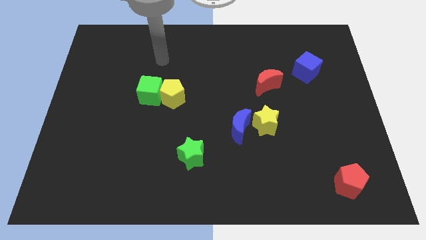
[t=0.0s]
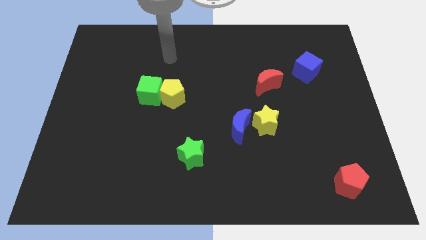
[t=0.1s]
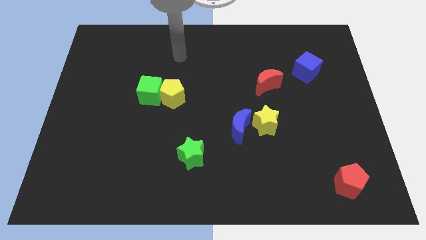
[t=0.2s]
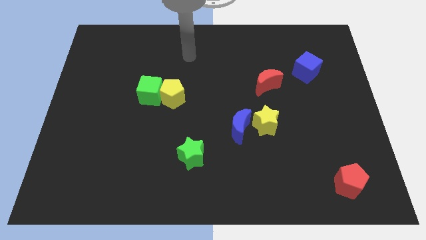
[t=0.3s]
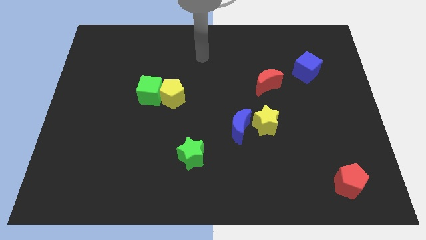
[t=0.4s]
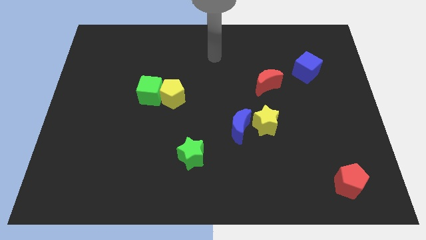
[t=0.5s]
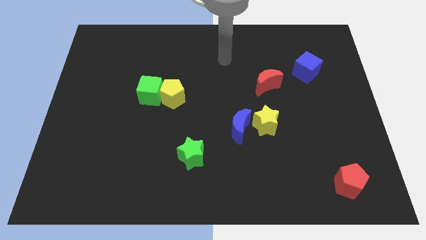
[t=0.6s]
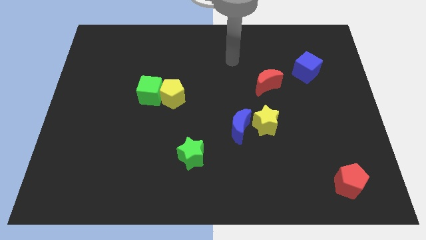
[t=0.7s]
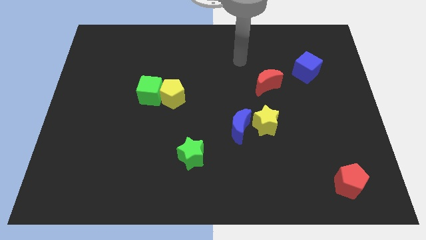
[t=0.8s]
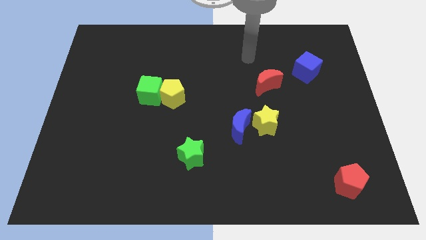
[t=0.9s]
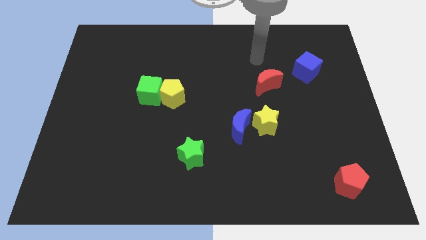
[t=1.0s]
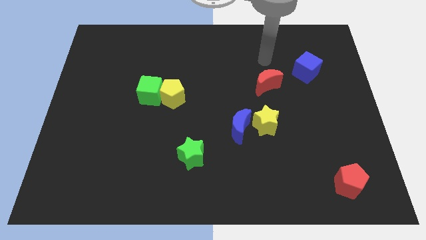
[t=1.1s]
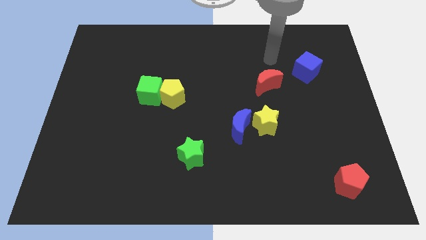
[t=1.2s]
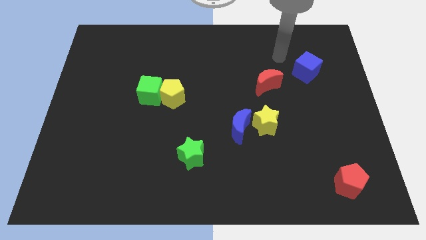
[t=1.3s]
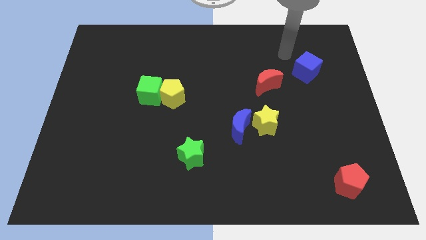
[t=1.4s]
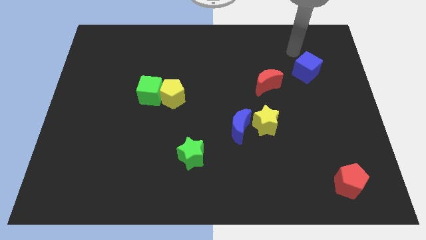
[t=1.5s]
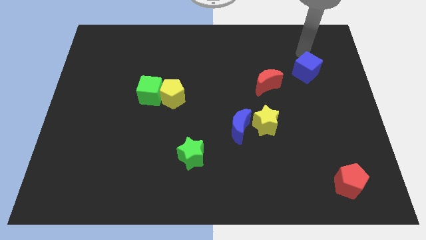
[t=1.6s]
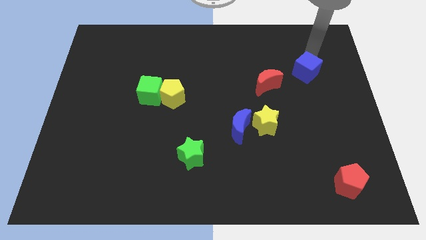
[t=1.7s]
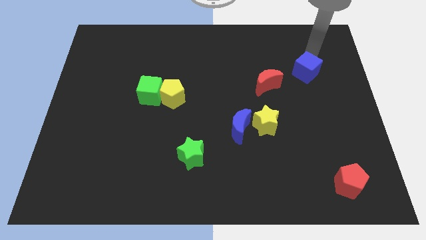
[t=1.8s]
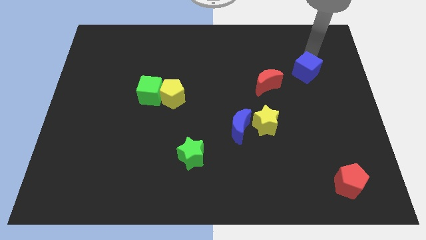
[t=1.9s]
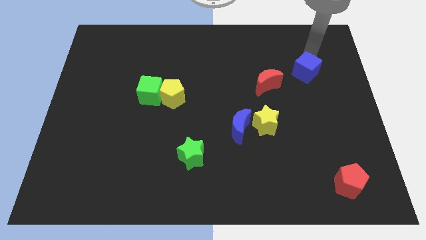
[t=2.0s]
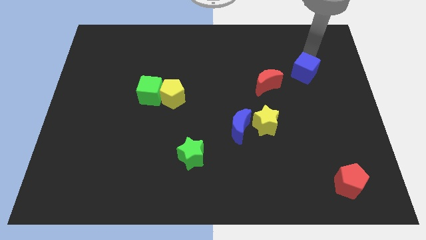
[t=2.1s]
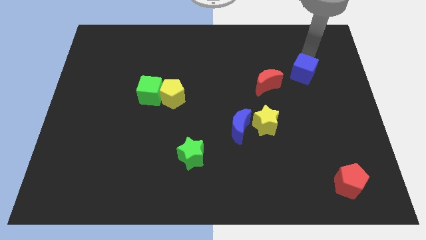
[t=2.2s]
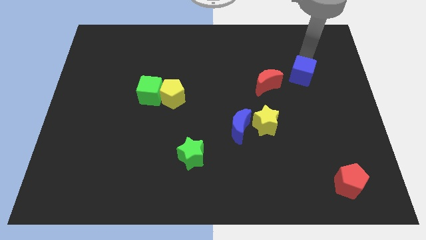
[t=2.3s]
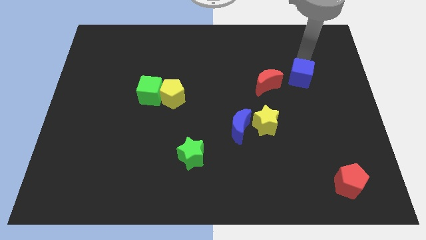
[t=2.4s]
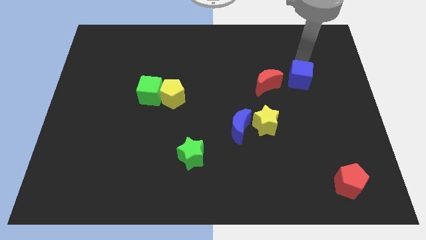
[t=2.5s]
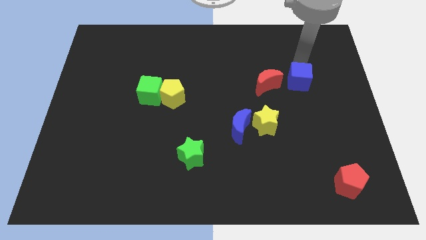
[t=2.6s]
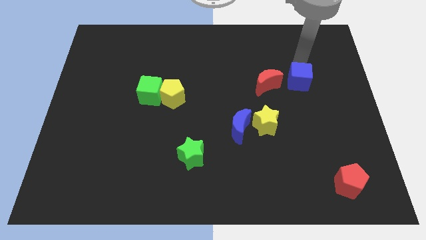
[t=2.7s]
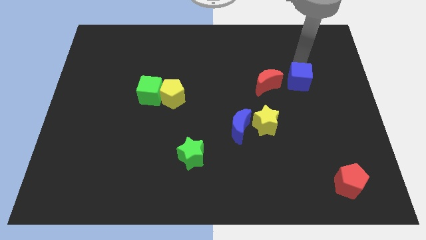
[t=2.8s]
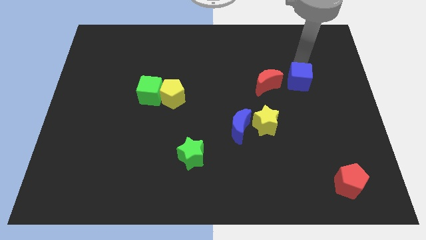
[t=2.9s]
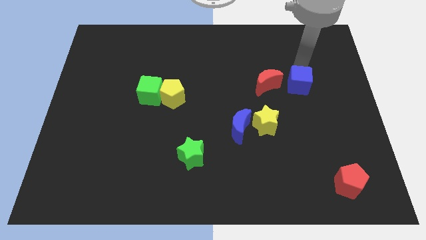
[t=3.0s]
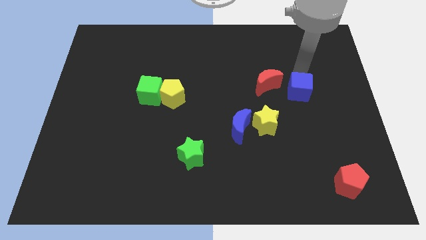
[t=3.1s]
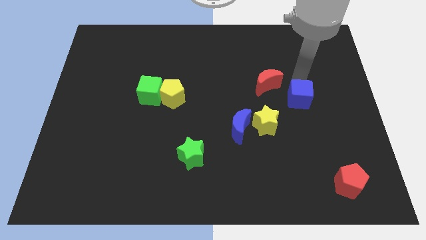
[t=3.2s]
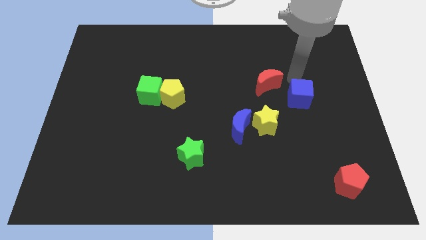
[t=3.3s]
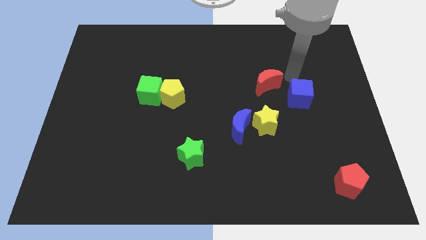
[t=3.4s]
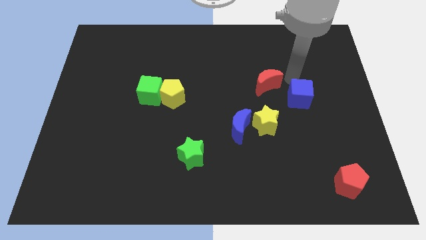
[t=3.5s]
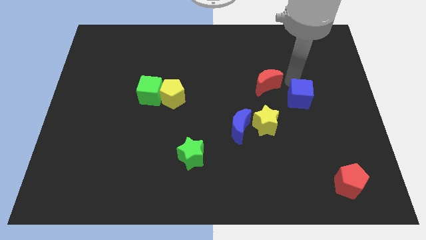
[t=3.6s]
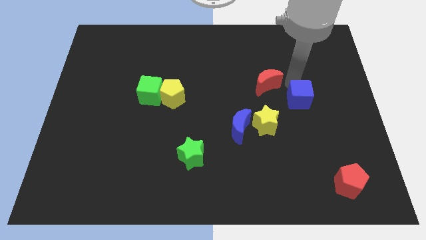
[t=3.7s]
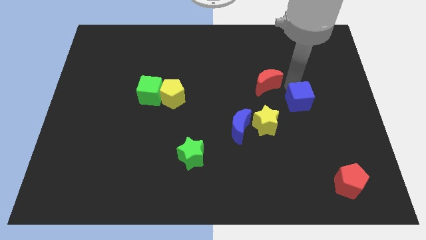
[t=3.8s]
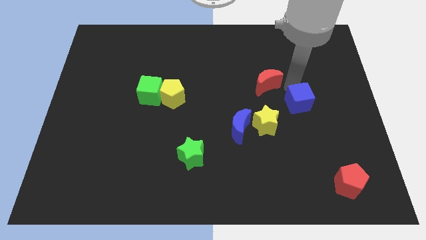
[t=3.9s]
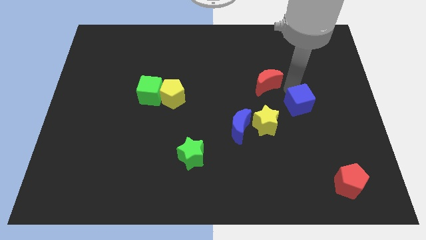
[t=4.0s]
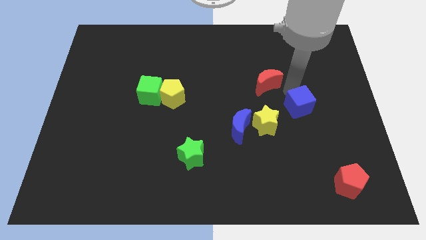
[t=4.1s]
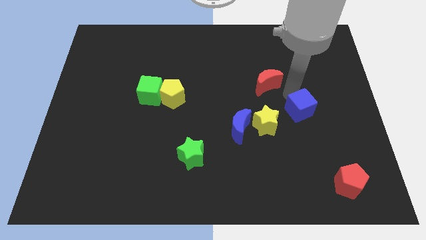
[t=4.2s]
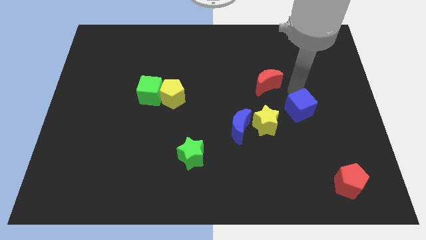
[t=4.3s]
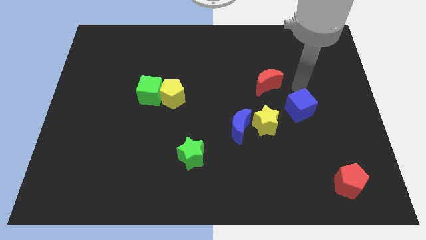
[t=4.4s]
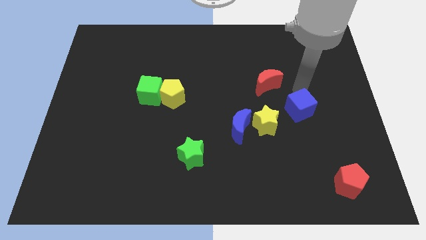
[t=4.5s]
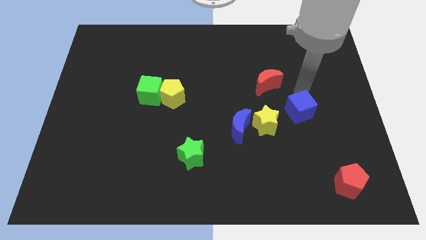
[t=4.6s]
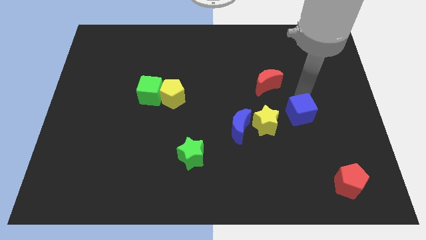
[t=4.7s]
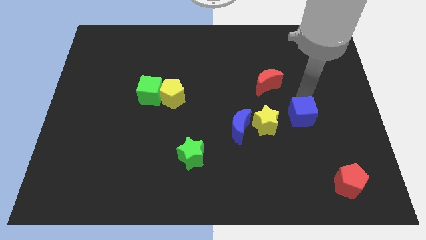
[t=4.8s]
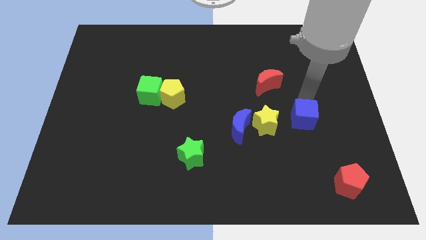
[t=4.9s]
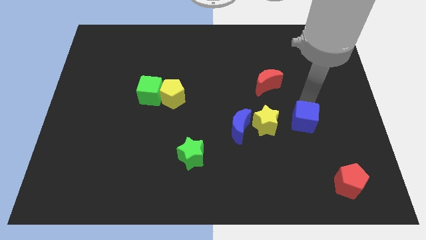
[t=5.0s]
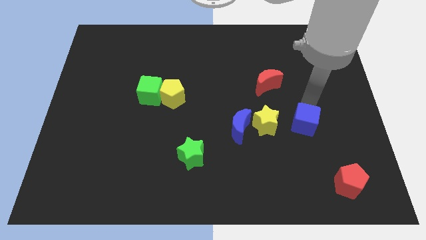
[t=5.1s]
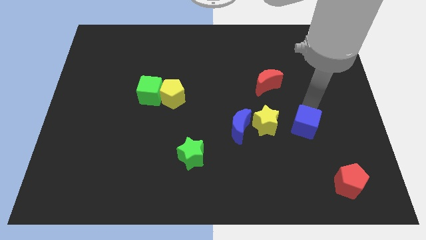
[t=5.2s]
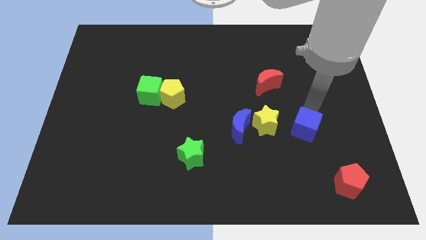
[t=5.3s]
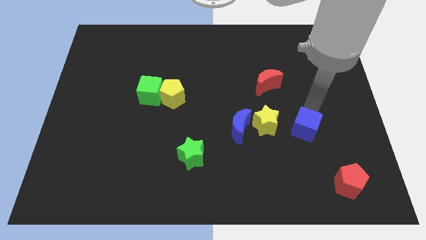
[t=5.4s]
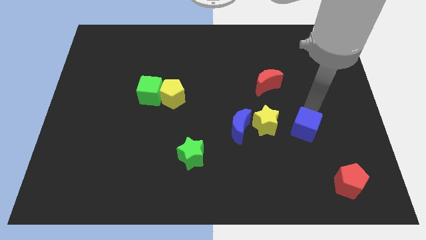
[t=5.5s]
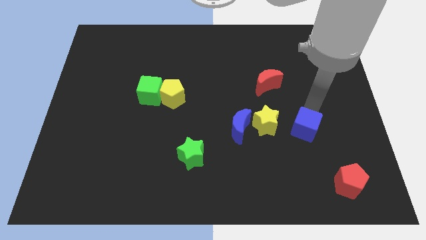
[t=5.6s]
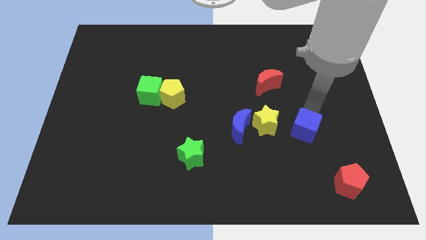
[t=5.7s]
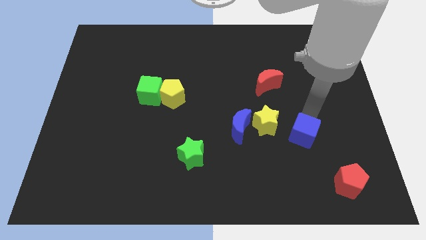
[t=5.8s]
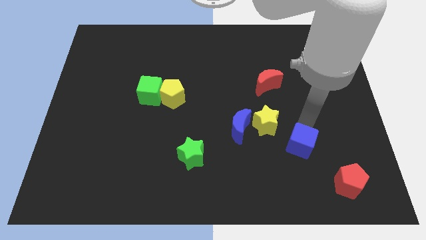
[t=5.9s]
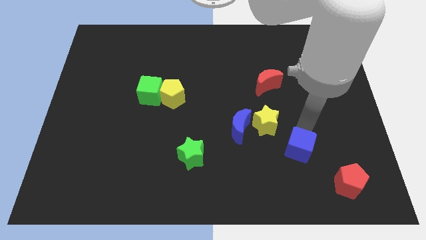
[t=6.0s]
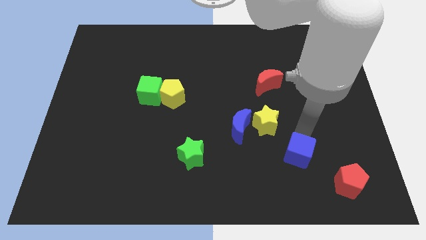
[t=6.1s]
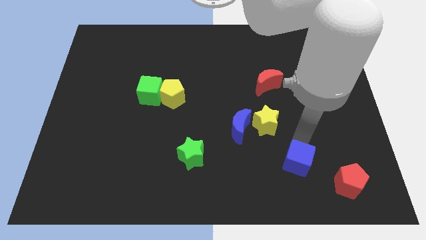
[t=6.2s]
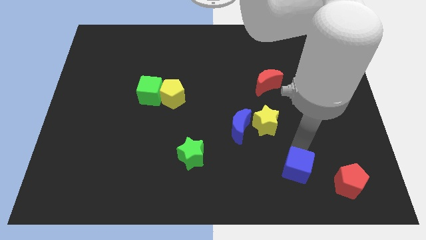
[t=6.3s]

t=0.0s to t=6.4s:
push the blue cube to the left side of the red pentagon

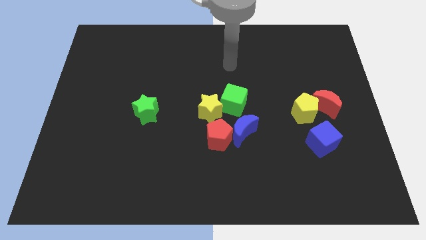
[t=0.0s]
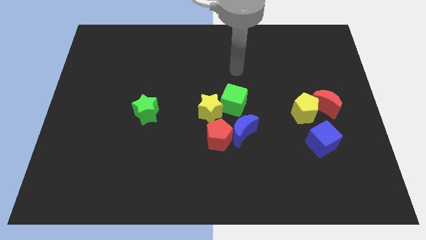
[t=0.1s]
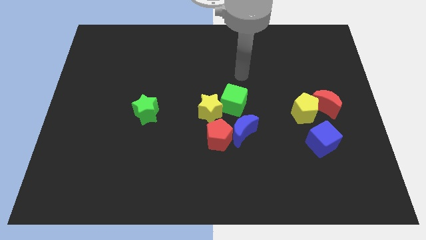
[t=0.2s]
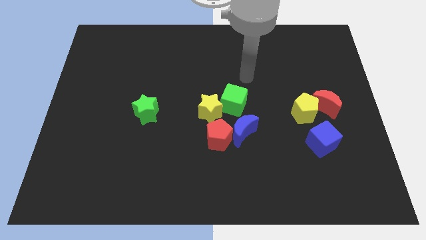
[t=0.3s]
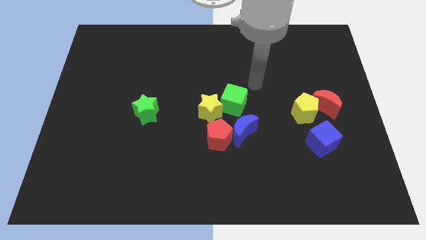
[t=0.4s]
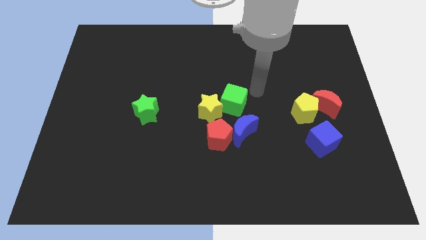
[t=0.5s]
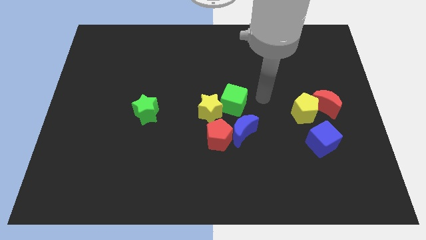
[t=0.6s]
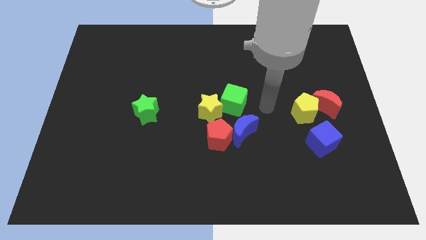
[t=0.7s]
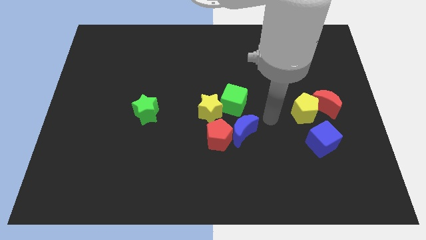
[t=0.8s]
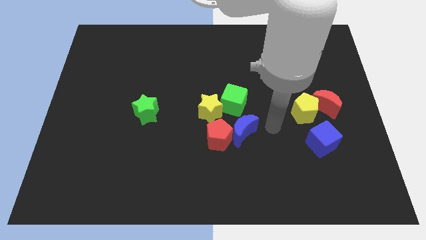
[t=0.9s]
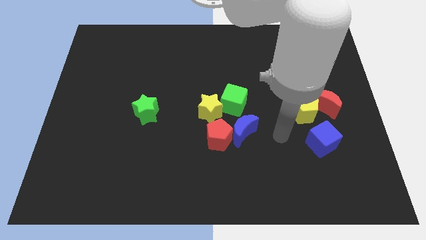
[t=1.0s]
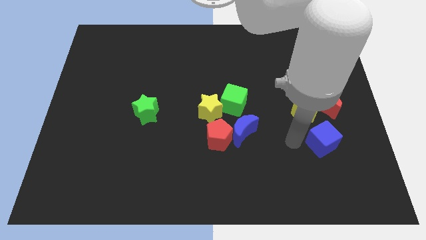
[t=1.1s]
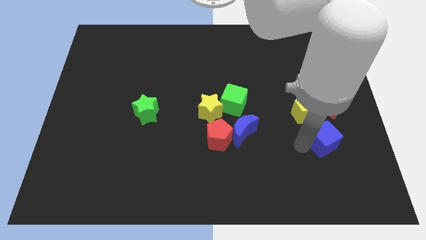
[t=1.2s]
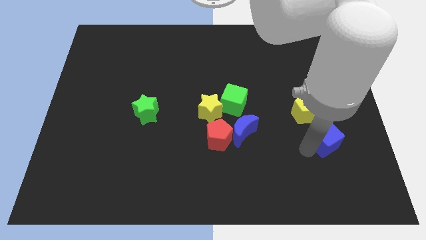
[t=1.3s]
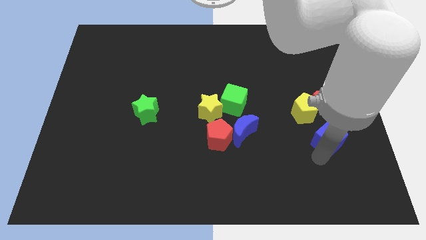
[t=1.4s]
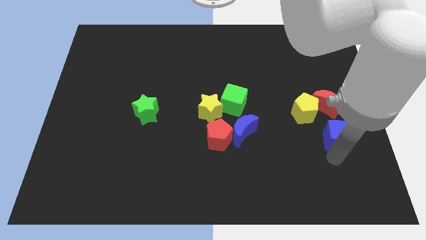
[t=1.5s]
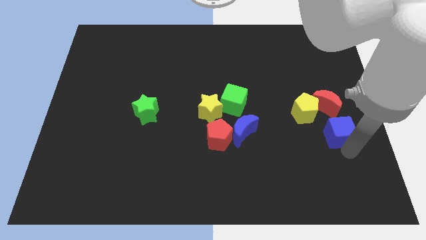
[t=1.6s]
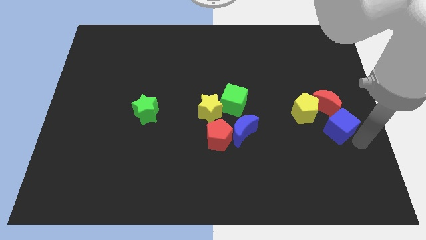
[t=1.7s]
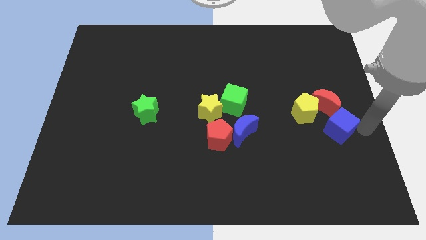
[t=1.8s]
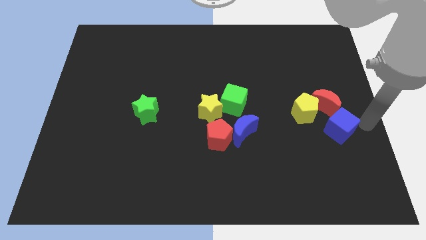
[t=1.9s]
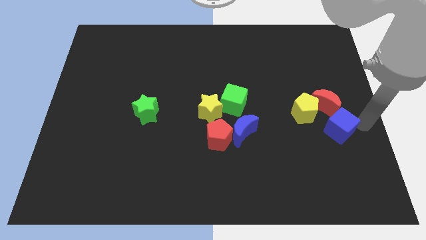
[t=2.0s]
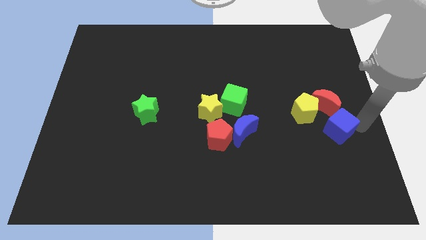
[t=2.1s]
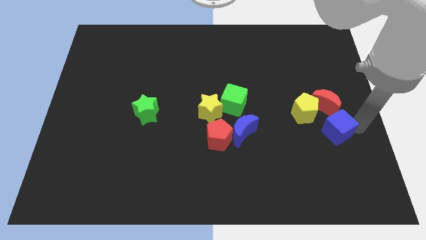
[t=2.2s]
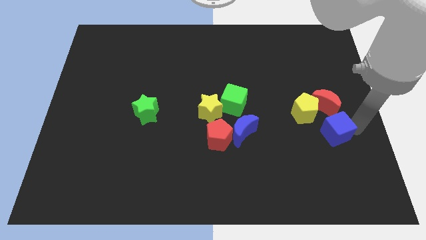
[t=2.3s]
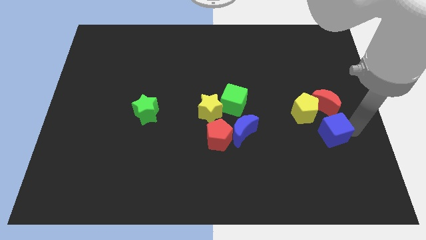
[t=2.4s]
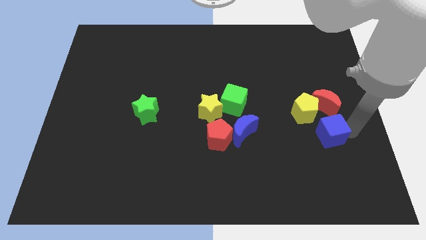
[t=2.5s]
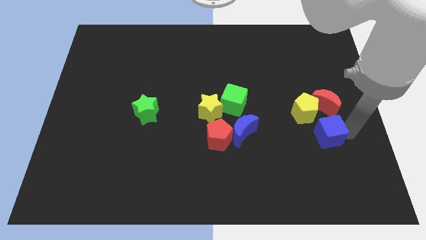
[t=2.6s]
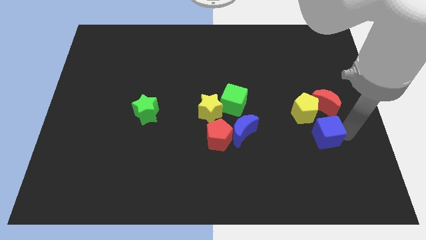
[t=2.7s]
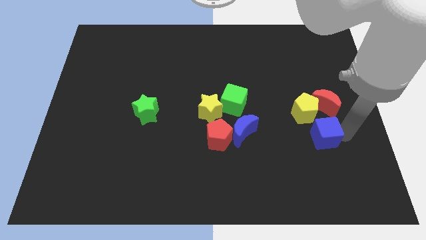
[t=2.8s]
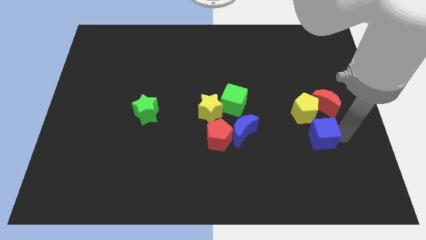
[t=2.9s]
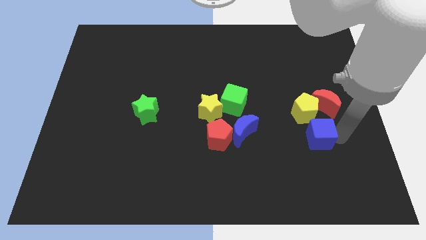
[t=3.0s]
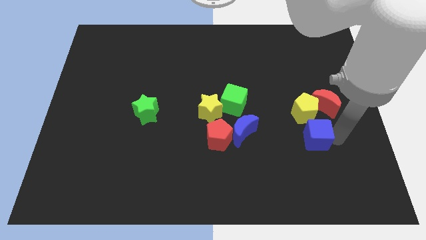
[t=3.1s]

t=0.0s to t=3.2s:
put the blue cube right of the blue moon
